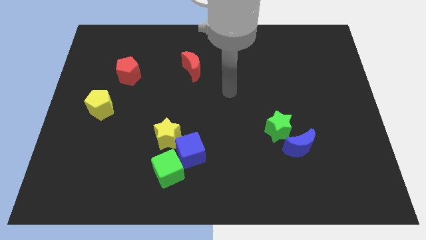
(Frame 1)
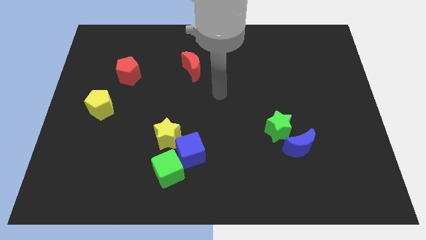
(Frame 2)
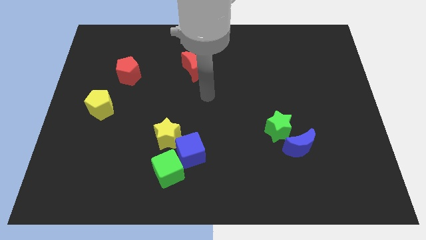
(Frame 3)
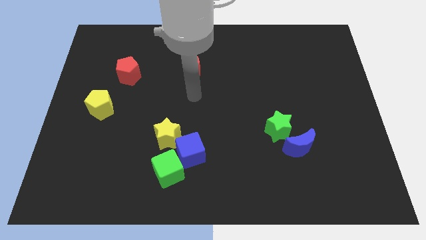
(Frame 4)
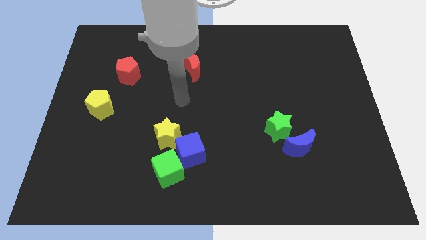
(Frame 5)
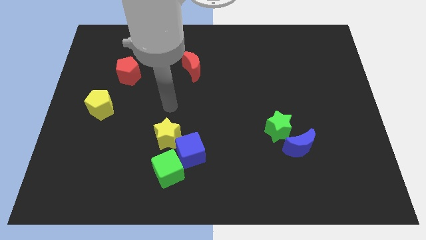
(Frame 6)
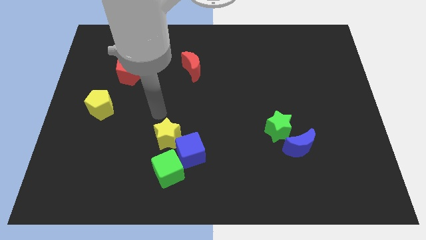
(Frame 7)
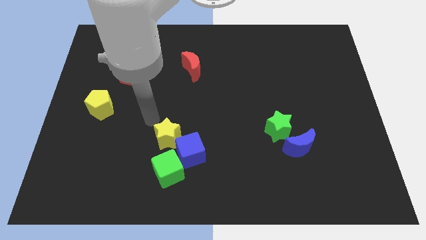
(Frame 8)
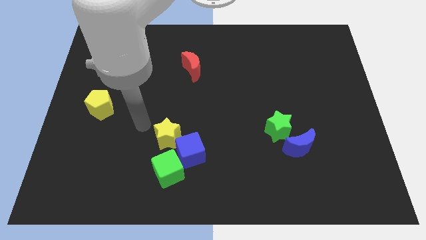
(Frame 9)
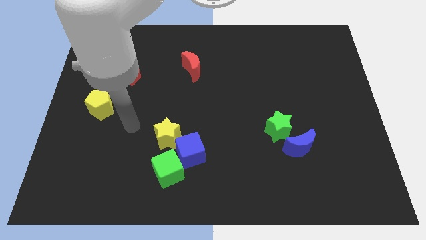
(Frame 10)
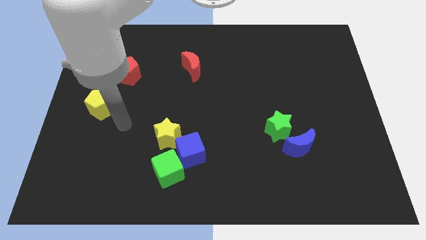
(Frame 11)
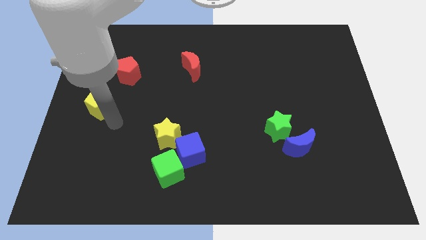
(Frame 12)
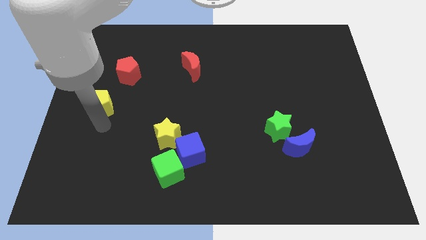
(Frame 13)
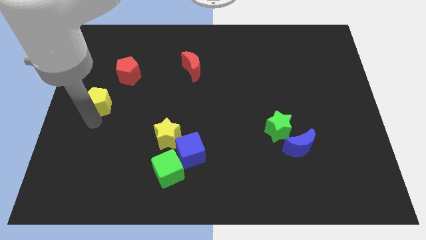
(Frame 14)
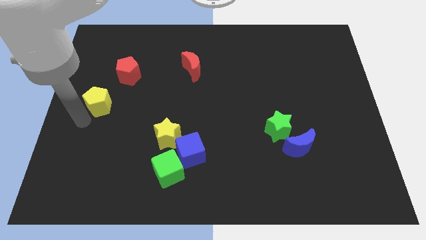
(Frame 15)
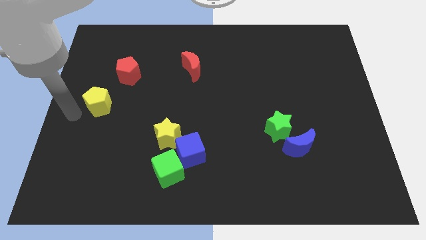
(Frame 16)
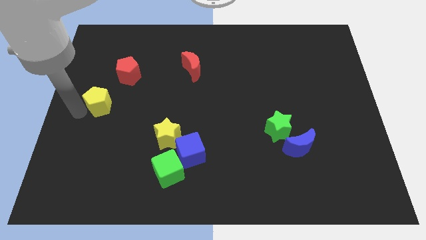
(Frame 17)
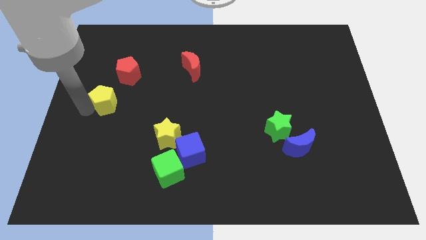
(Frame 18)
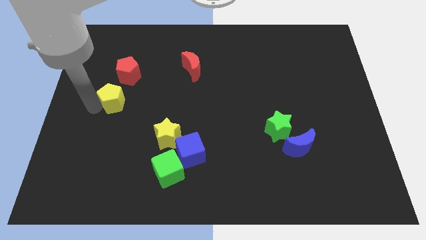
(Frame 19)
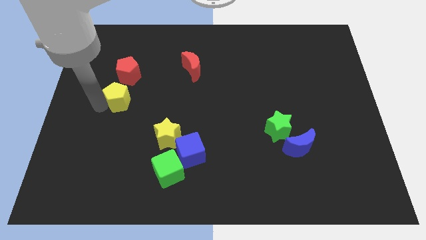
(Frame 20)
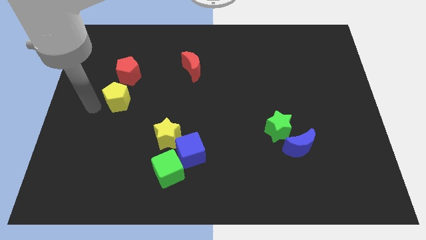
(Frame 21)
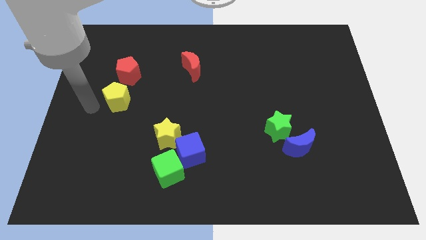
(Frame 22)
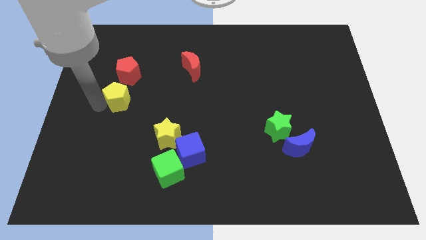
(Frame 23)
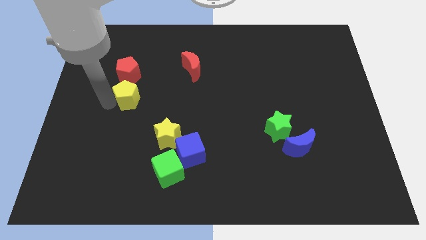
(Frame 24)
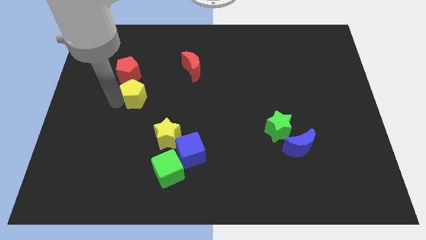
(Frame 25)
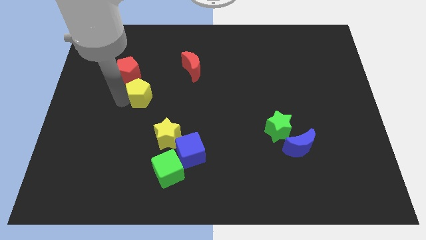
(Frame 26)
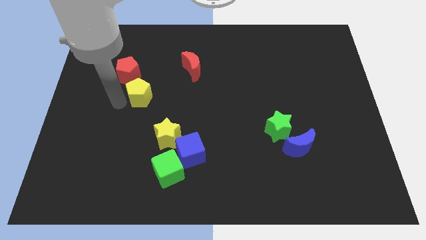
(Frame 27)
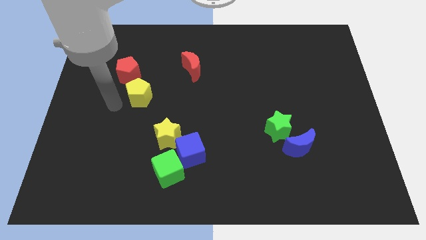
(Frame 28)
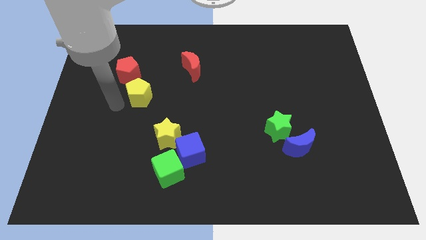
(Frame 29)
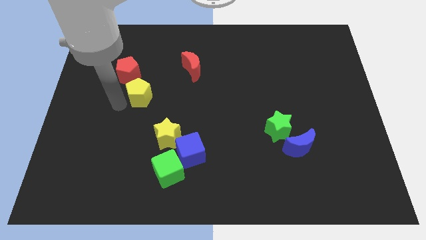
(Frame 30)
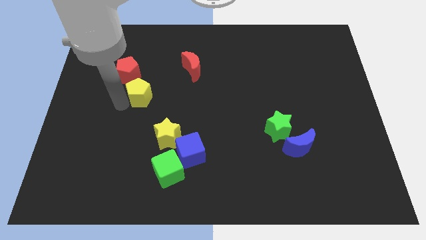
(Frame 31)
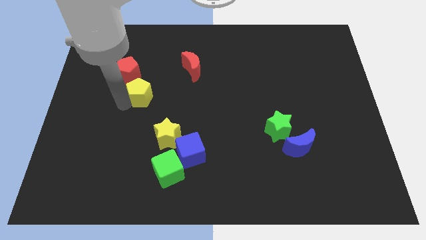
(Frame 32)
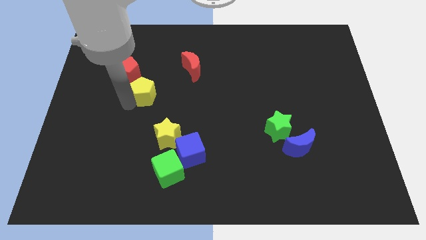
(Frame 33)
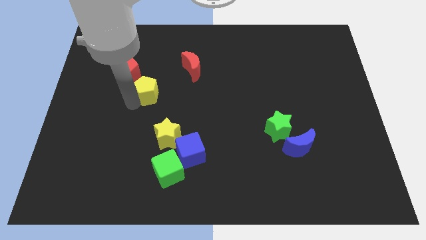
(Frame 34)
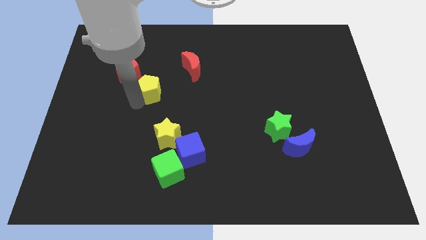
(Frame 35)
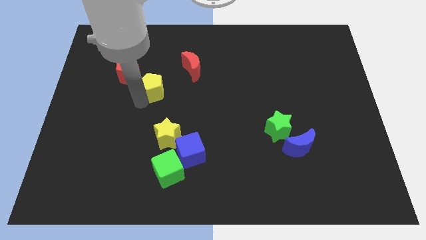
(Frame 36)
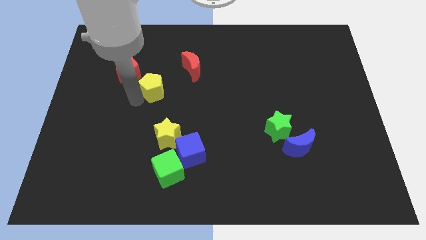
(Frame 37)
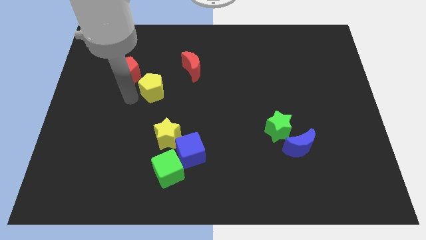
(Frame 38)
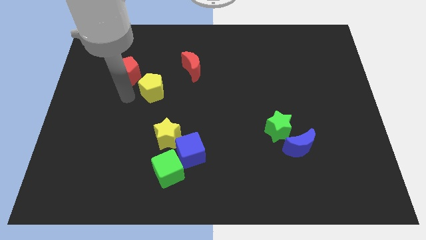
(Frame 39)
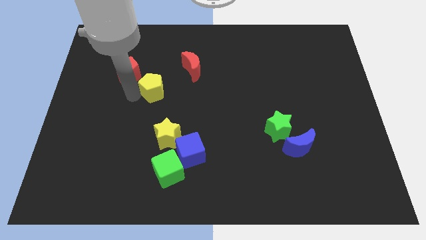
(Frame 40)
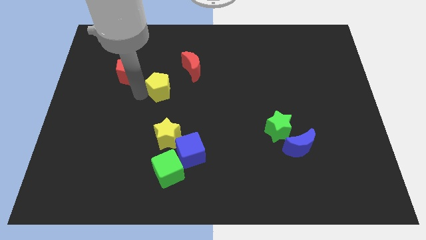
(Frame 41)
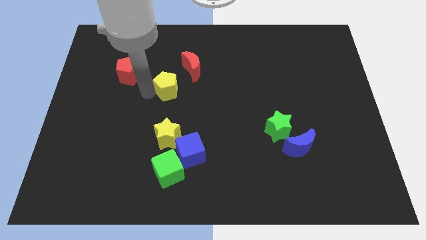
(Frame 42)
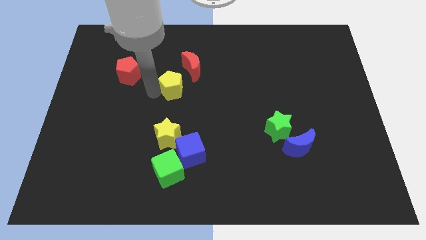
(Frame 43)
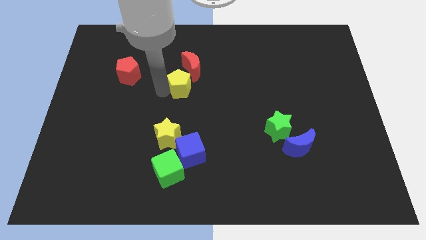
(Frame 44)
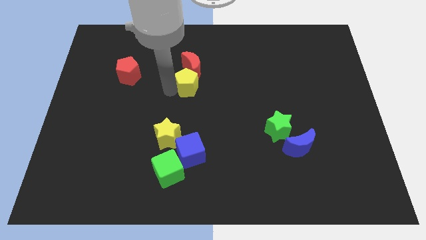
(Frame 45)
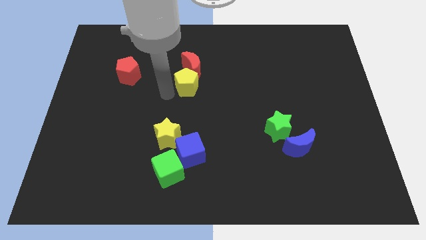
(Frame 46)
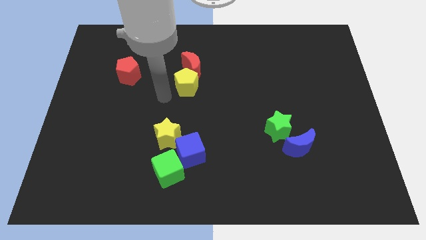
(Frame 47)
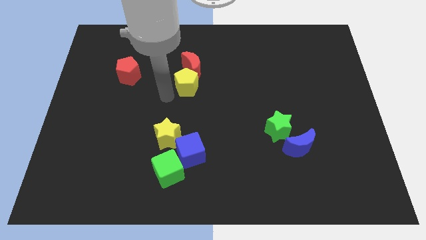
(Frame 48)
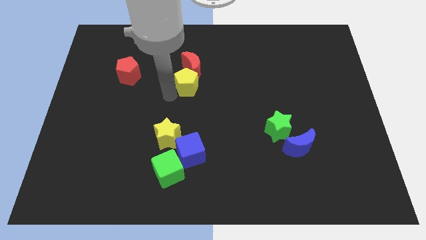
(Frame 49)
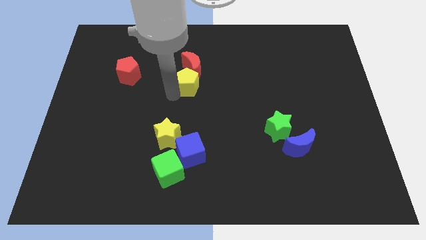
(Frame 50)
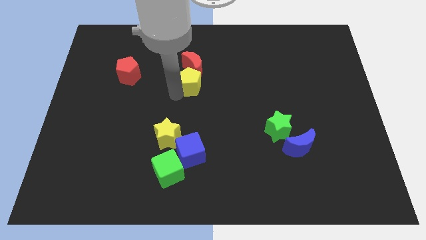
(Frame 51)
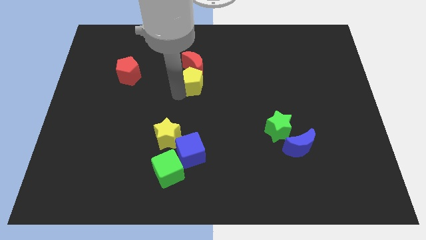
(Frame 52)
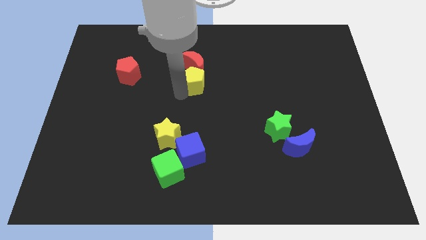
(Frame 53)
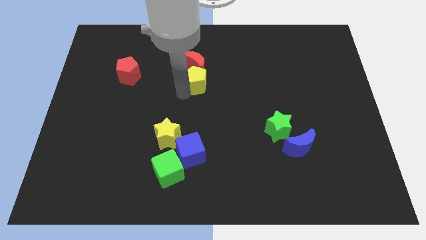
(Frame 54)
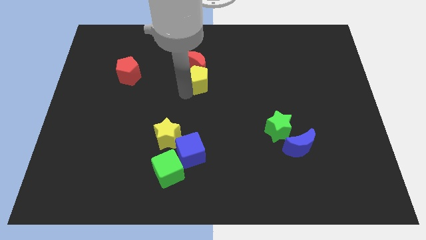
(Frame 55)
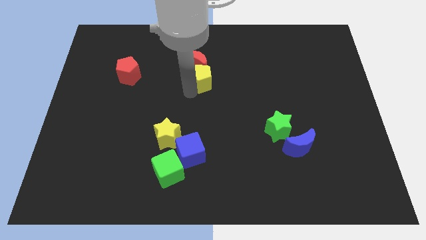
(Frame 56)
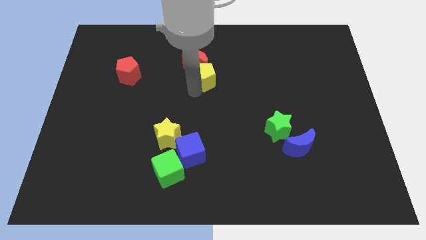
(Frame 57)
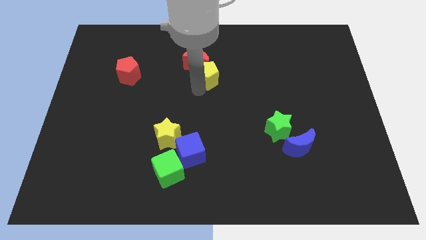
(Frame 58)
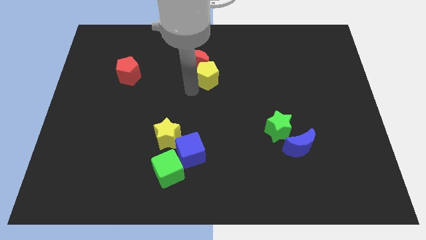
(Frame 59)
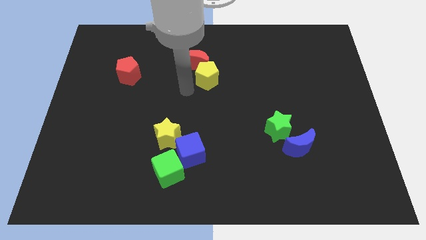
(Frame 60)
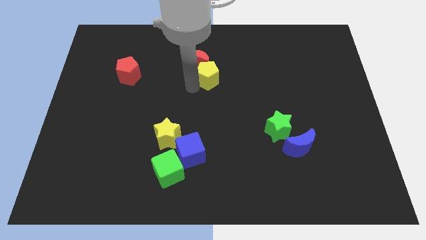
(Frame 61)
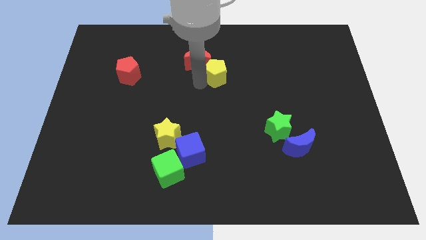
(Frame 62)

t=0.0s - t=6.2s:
move the yellow pentagon right of the red moon

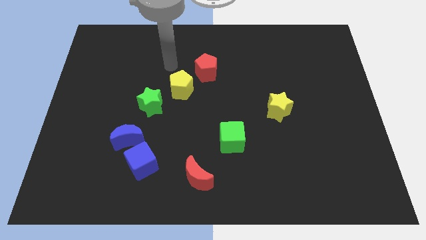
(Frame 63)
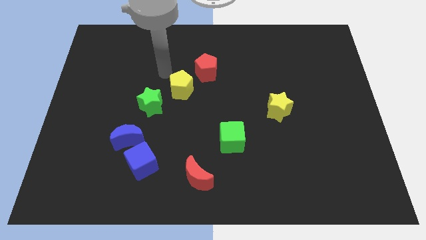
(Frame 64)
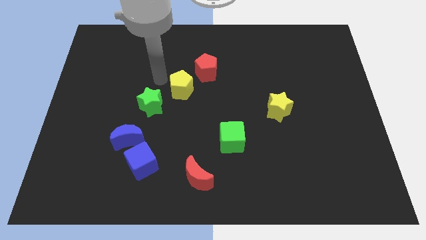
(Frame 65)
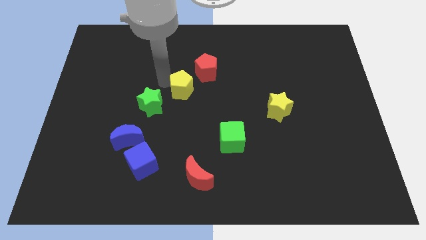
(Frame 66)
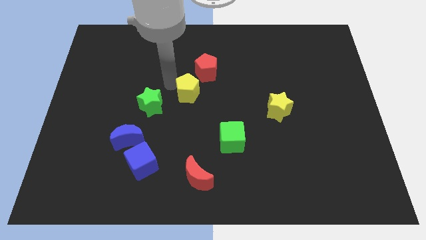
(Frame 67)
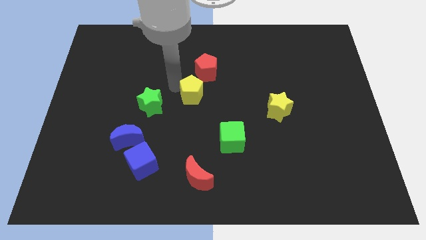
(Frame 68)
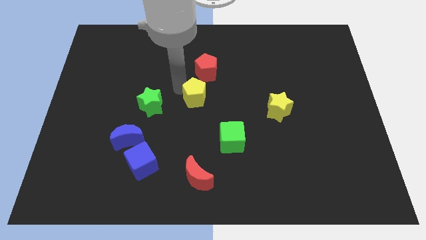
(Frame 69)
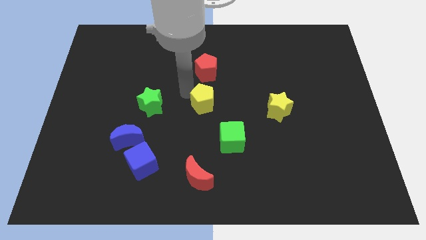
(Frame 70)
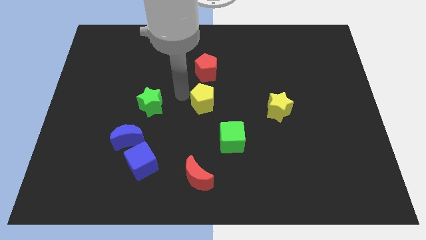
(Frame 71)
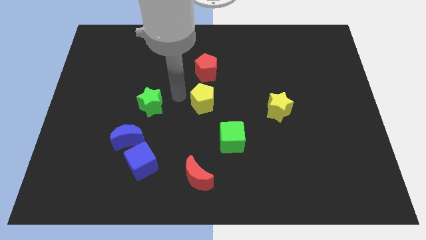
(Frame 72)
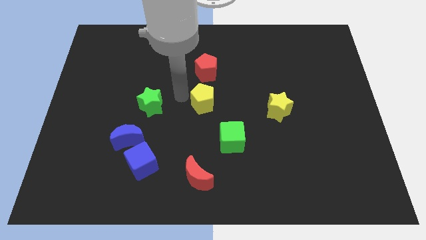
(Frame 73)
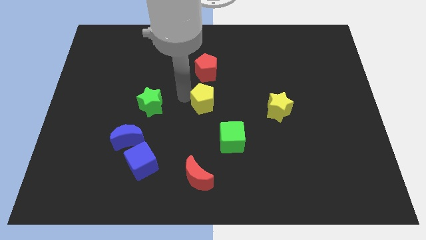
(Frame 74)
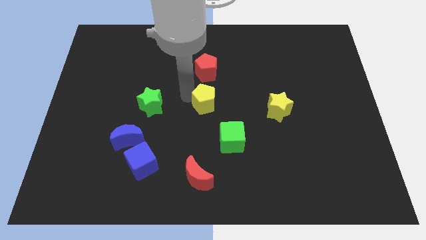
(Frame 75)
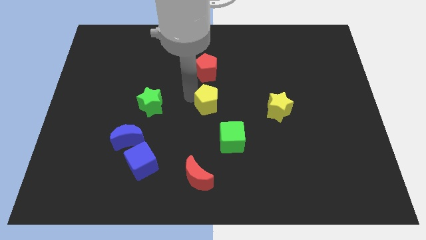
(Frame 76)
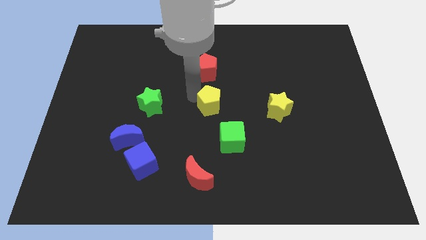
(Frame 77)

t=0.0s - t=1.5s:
move the yellow pentagon to the left side of the yellow star

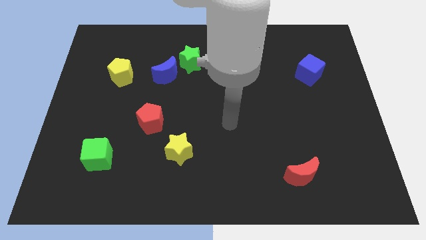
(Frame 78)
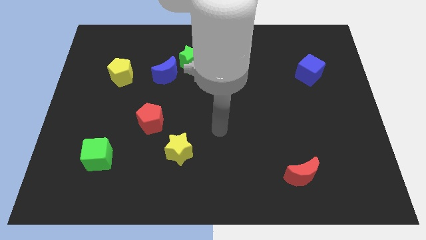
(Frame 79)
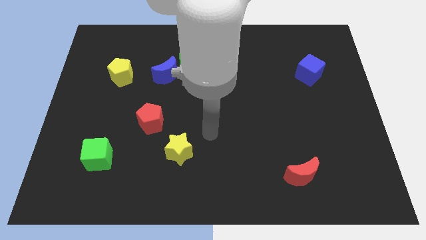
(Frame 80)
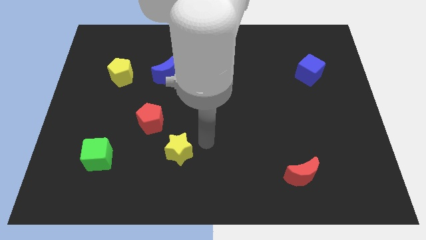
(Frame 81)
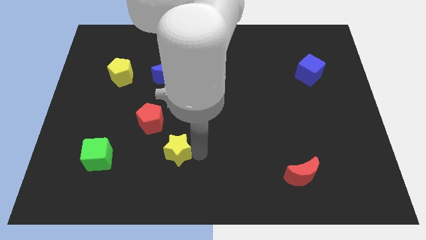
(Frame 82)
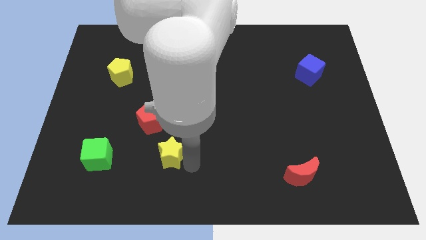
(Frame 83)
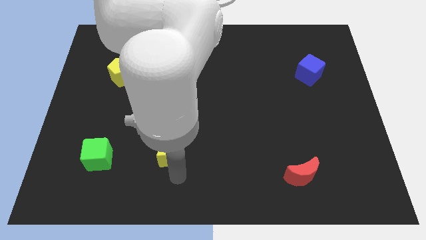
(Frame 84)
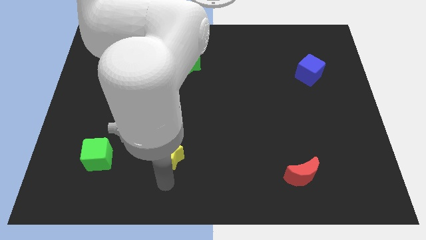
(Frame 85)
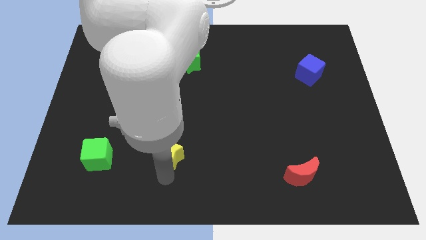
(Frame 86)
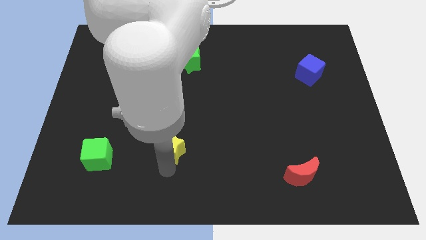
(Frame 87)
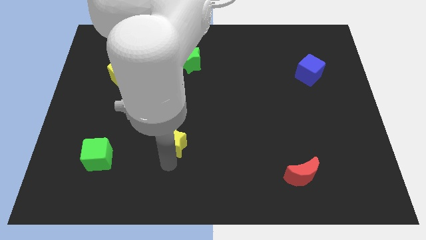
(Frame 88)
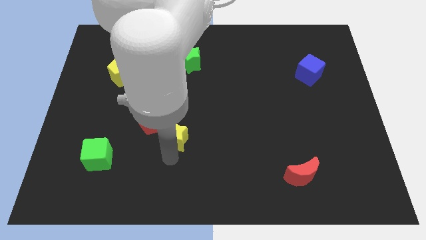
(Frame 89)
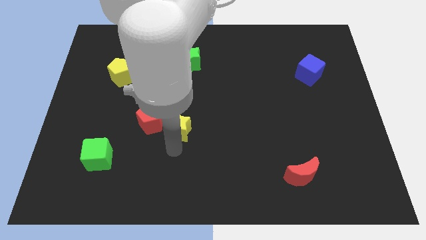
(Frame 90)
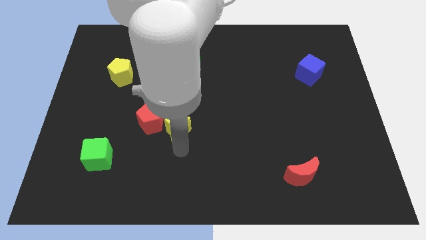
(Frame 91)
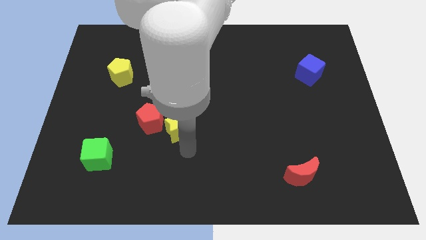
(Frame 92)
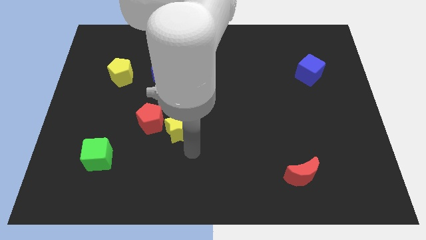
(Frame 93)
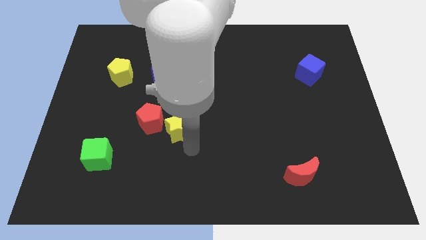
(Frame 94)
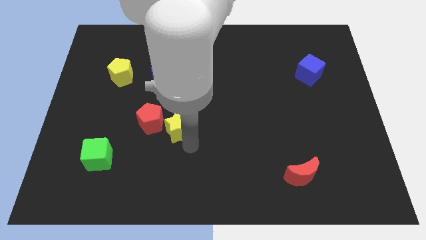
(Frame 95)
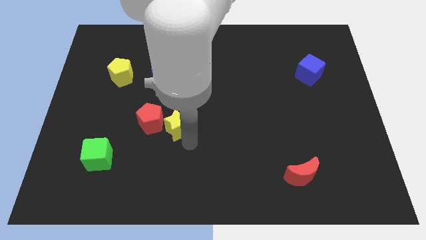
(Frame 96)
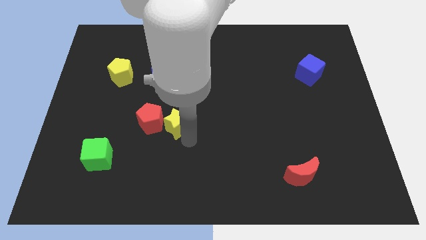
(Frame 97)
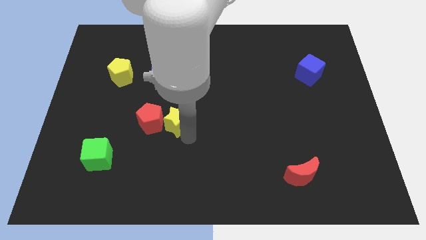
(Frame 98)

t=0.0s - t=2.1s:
push the yellow star to the bottom side of the blue moon
